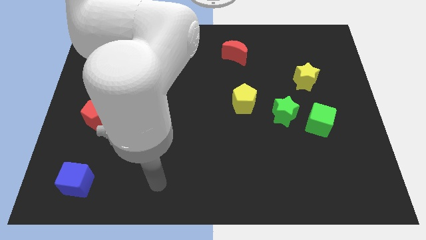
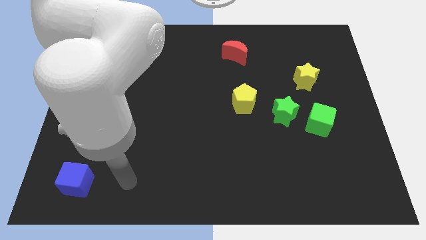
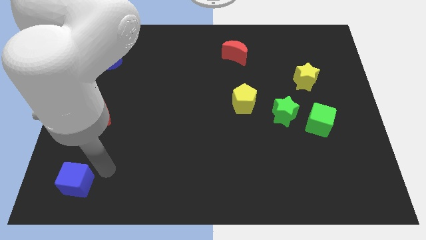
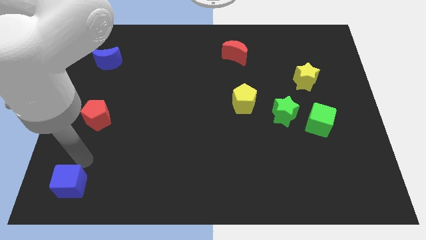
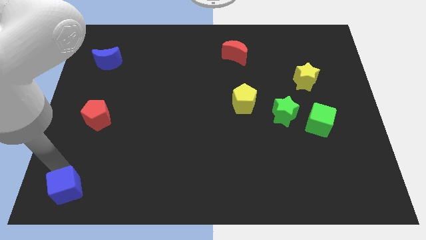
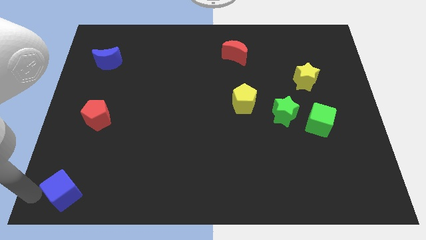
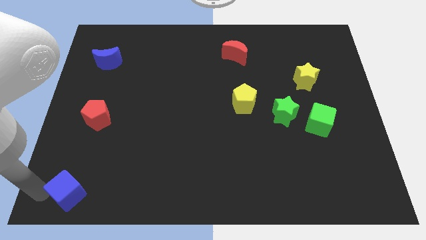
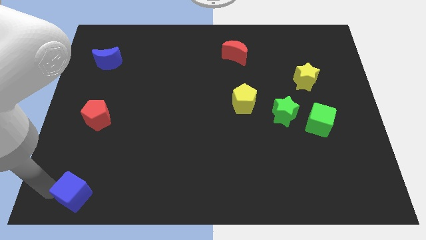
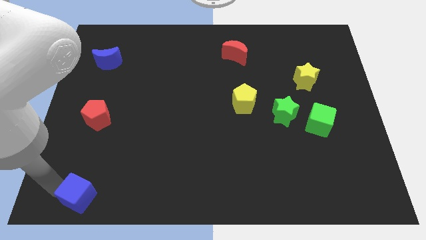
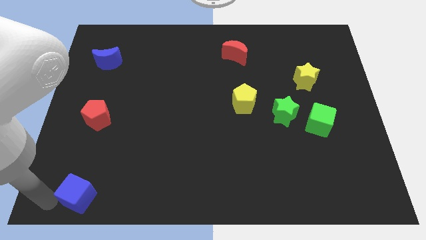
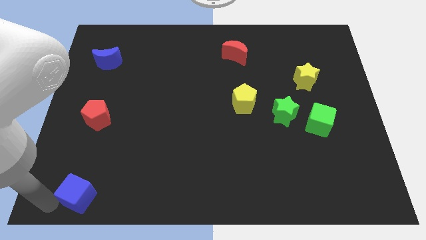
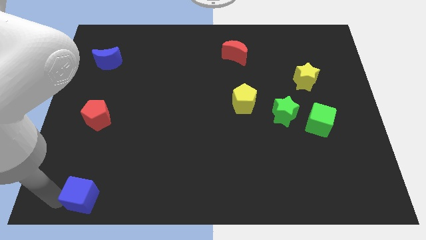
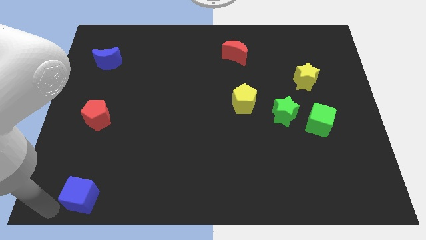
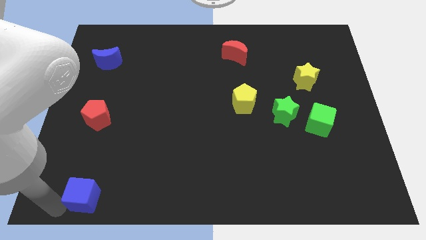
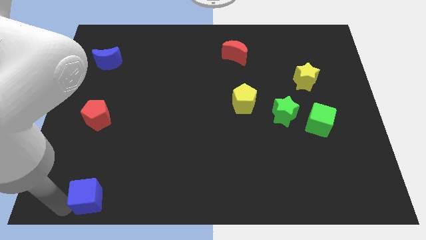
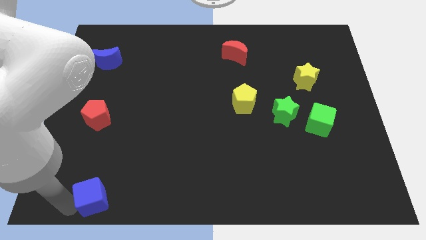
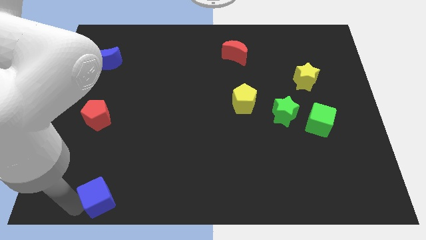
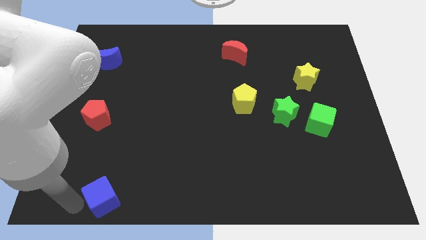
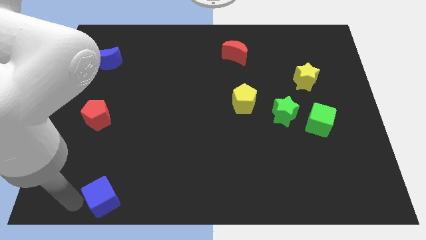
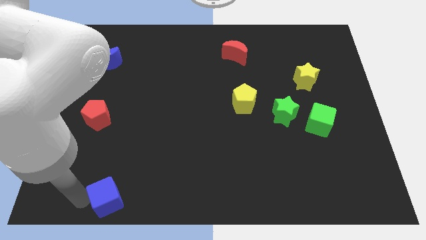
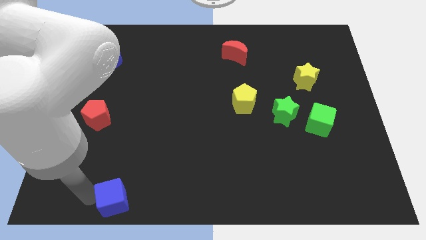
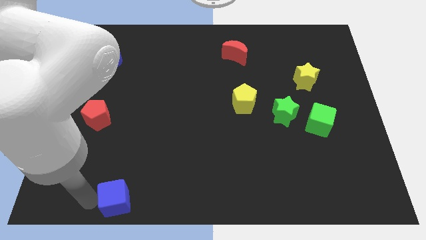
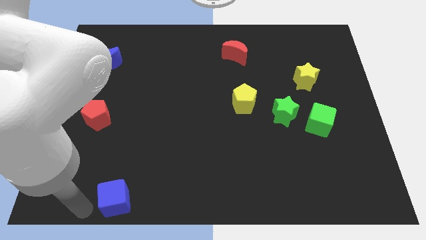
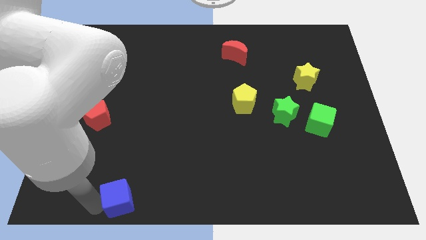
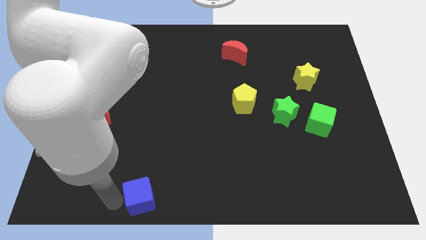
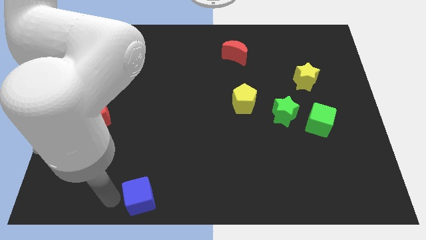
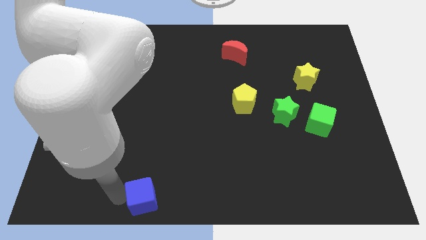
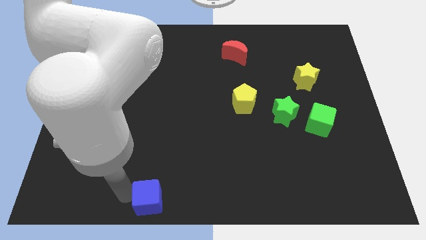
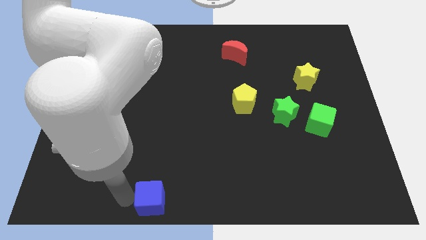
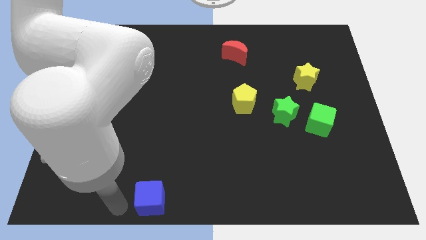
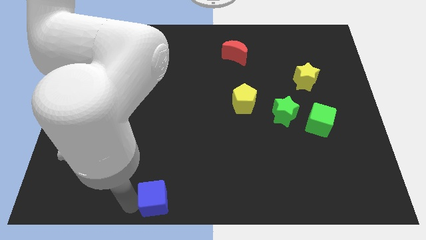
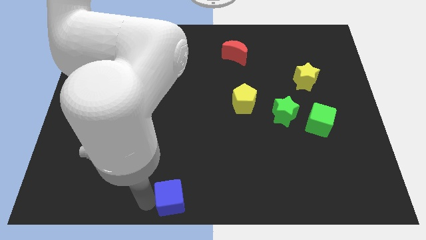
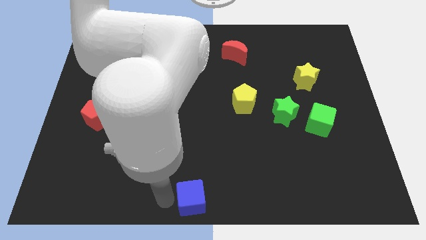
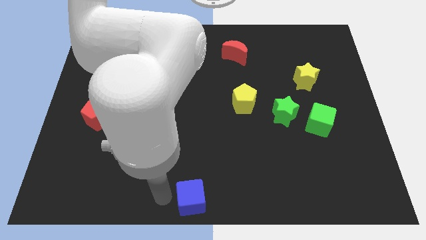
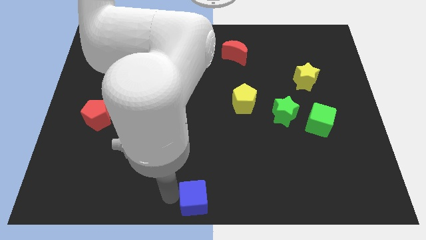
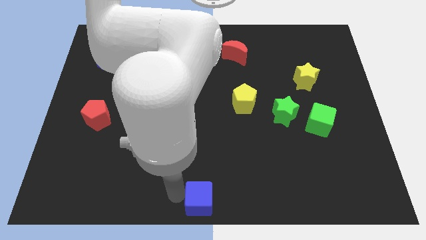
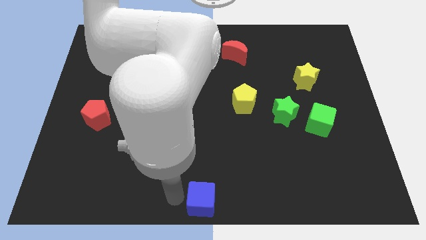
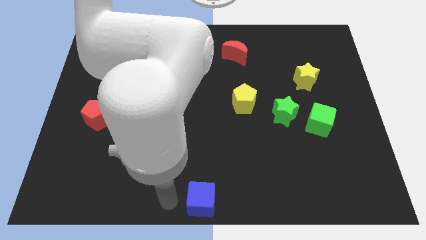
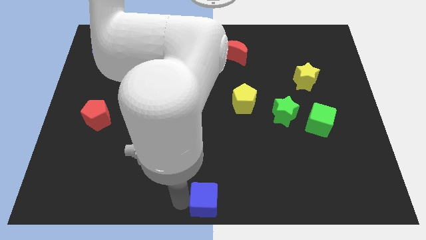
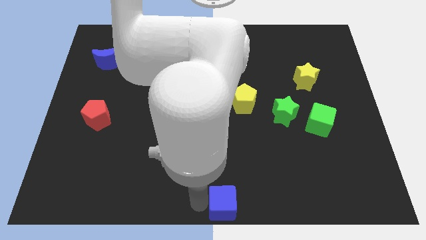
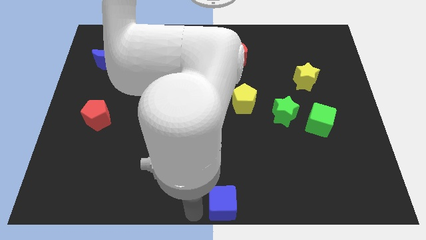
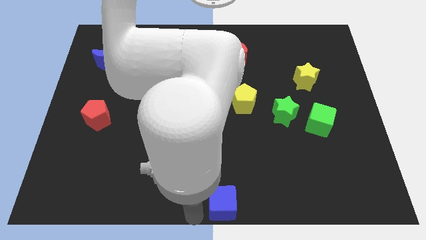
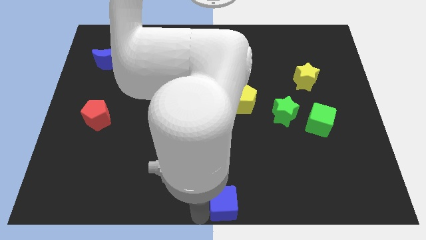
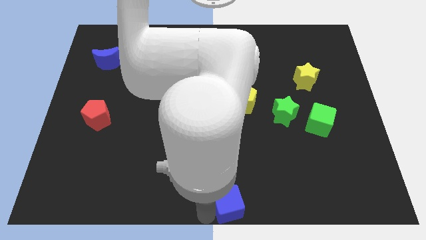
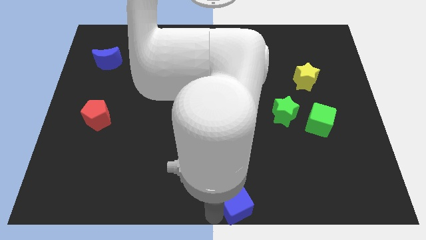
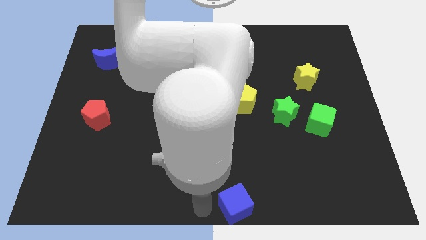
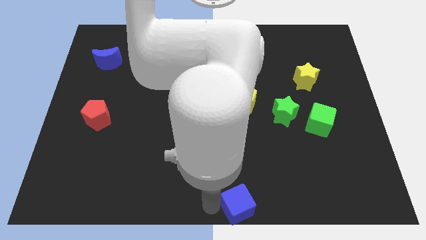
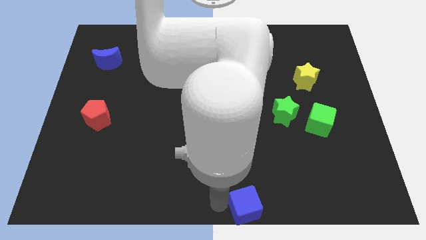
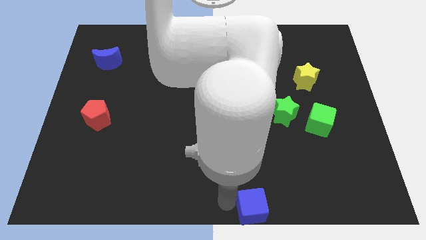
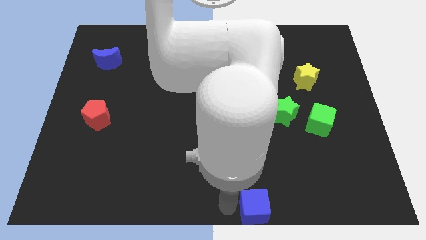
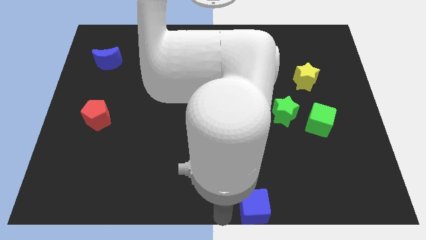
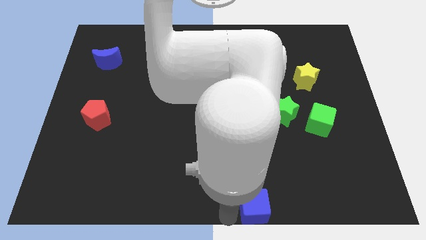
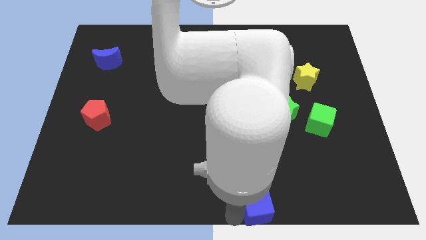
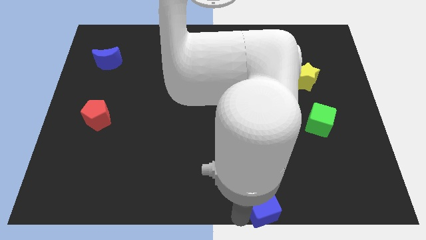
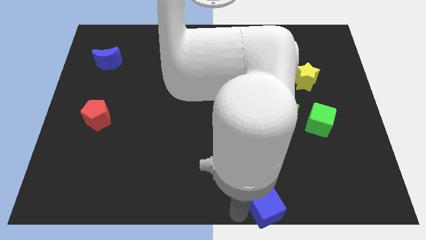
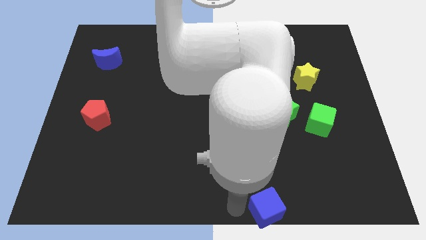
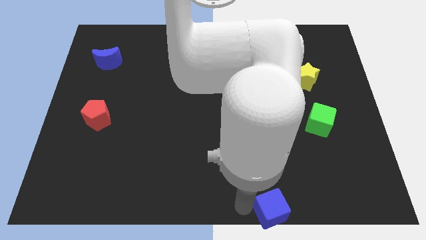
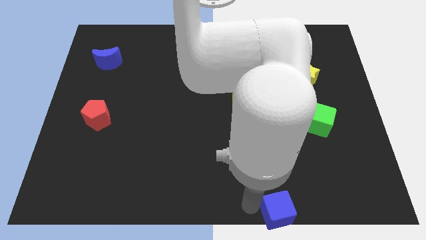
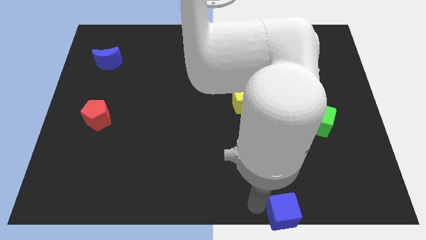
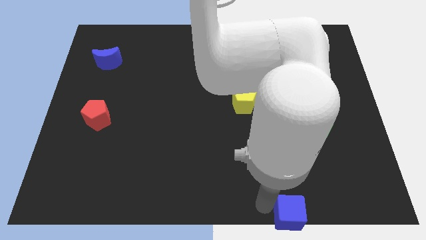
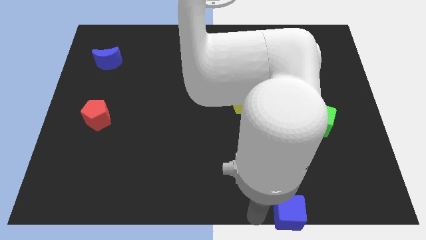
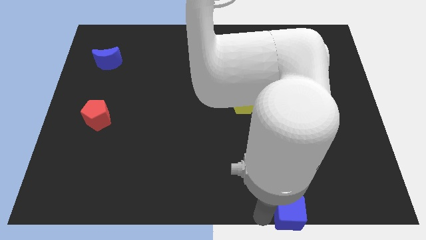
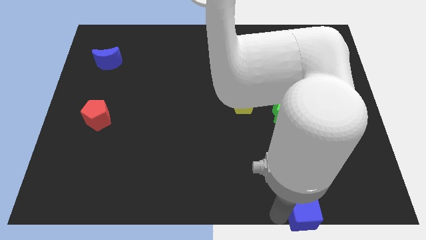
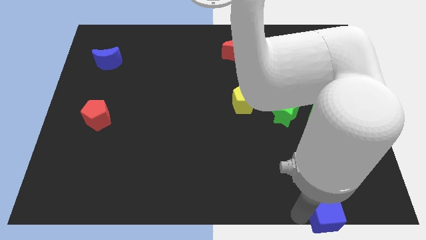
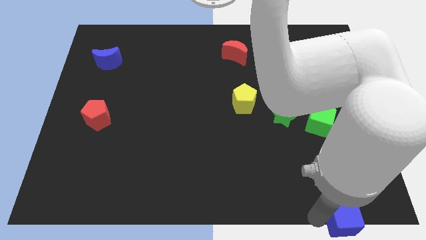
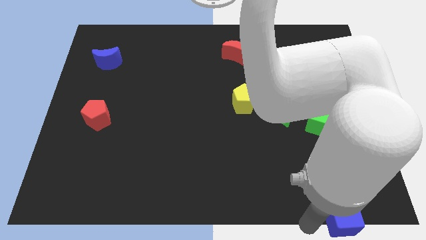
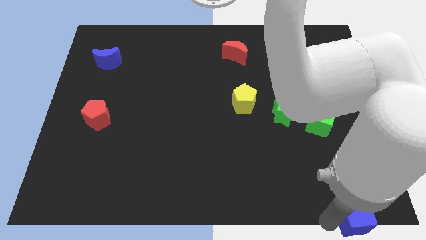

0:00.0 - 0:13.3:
put the blue cube to the bottom right

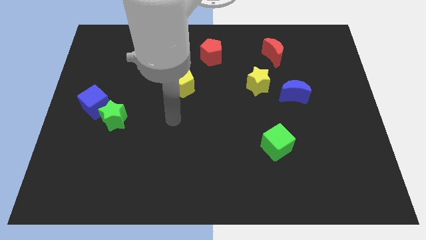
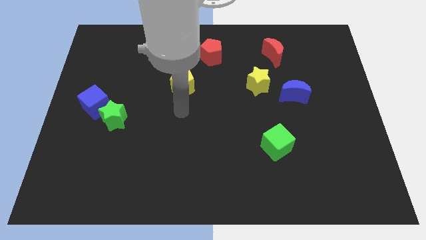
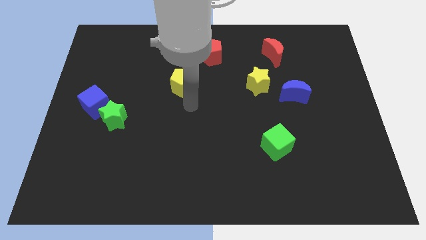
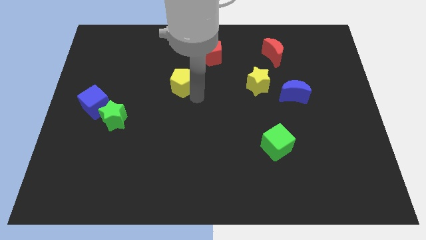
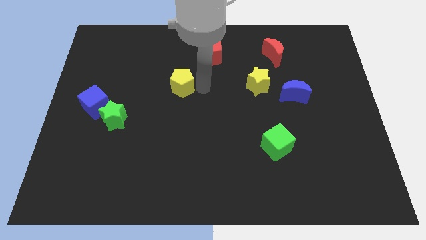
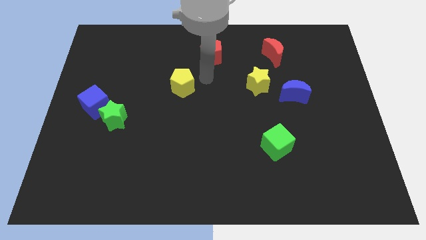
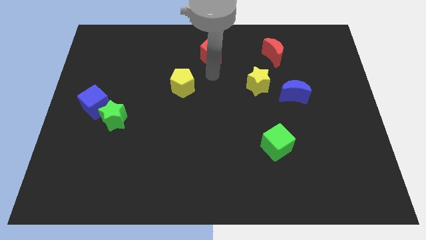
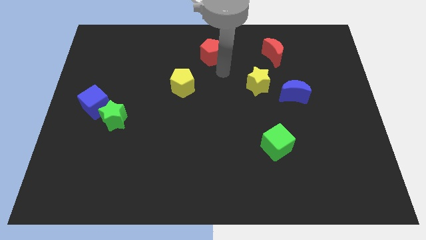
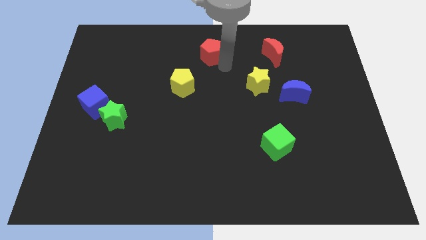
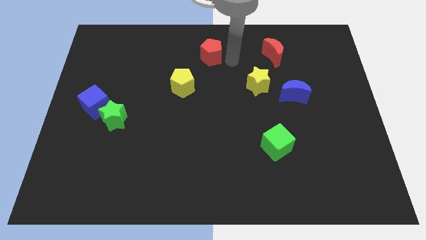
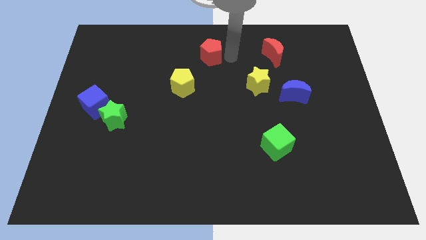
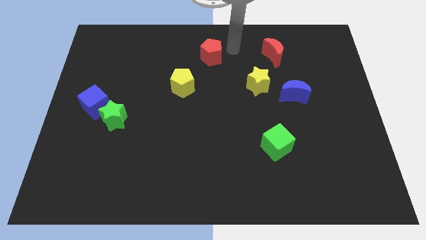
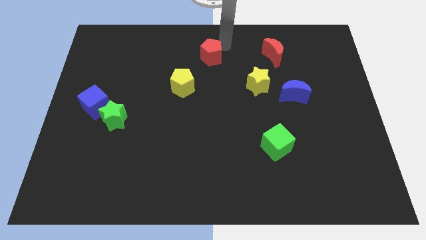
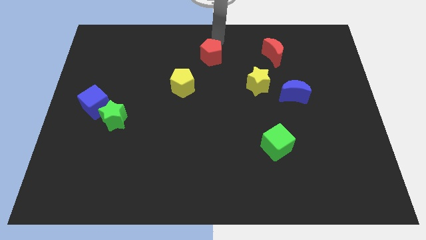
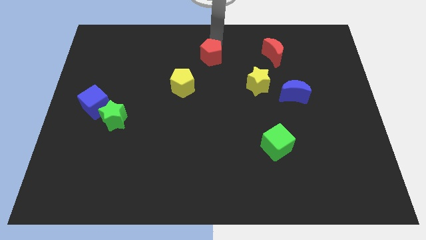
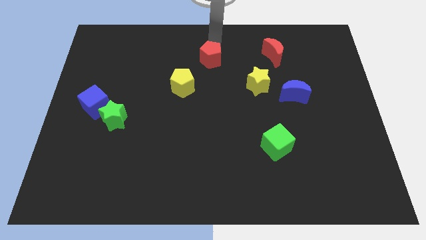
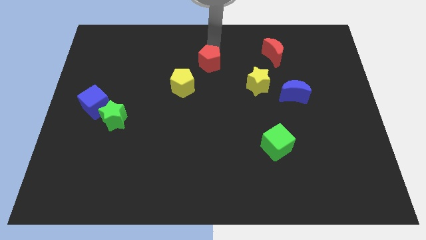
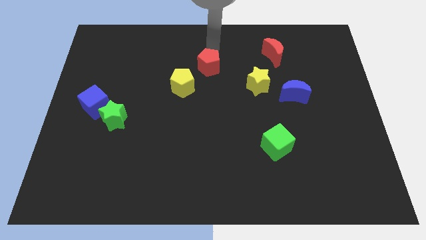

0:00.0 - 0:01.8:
move the red pentagon to the middle of the board
